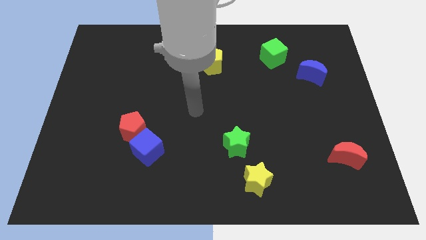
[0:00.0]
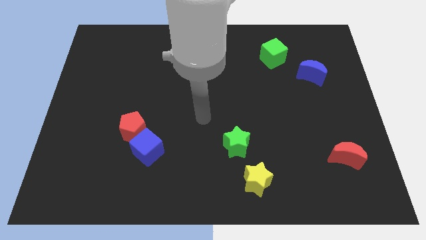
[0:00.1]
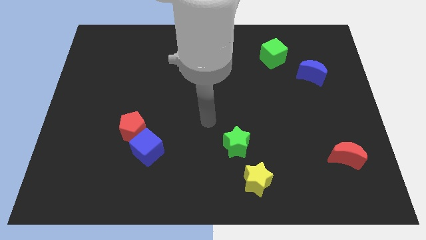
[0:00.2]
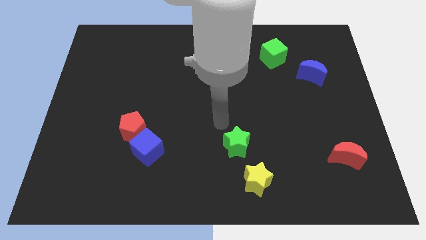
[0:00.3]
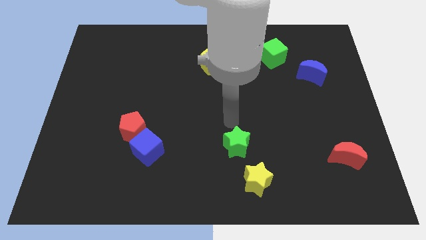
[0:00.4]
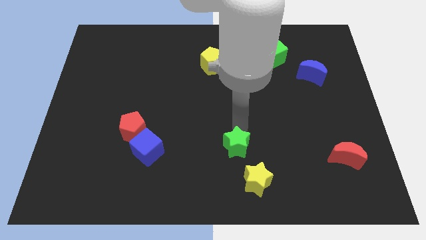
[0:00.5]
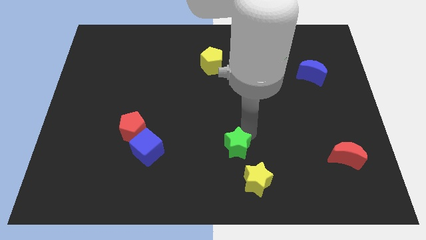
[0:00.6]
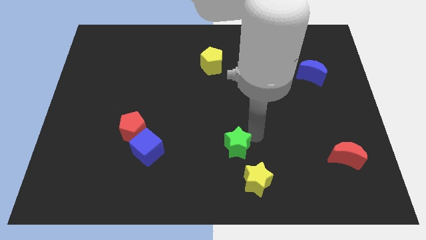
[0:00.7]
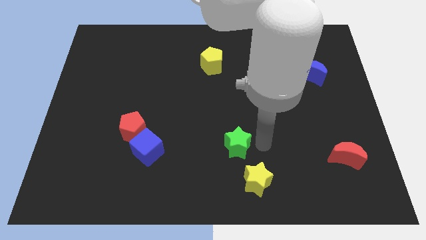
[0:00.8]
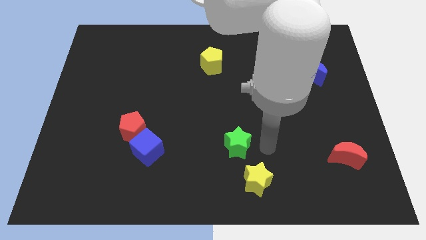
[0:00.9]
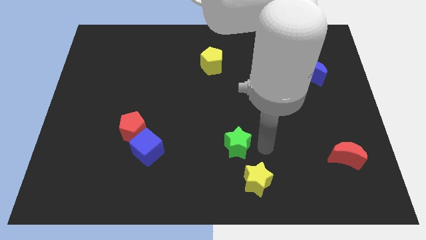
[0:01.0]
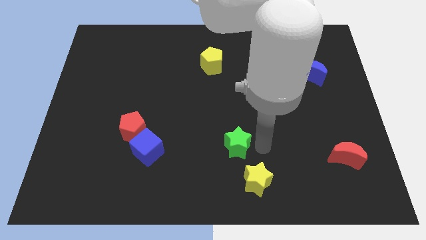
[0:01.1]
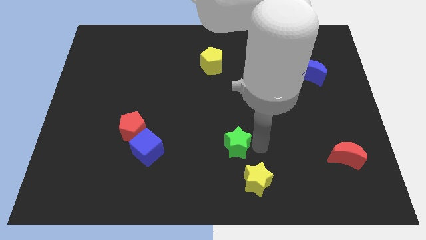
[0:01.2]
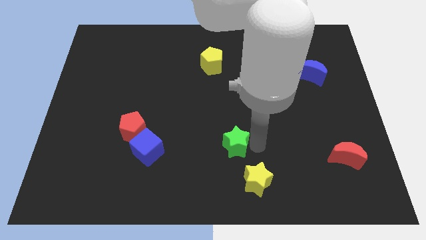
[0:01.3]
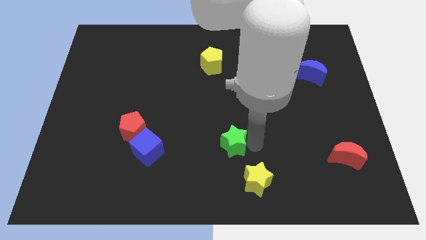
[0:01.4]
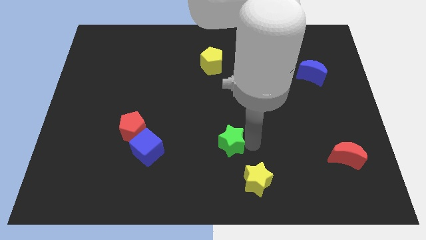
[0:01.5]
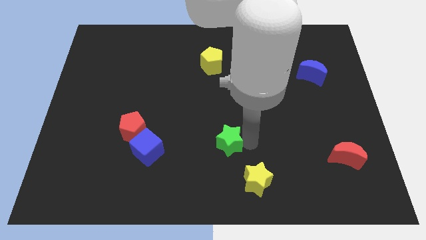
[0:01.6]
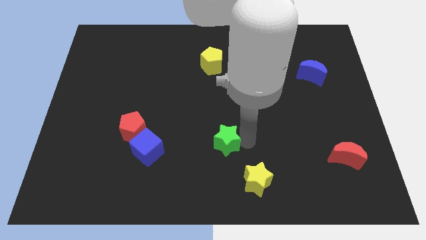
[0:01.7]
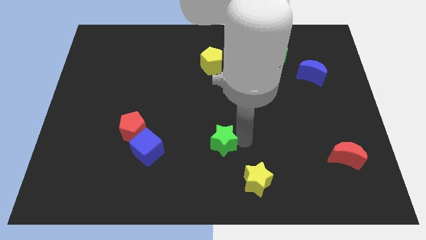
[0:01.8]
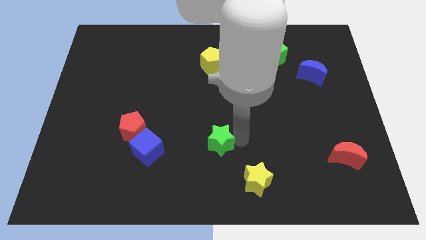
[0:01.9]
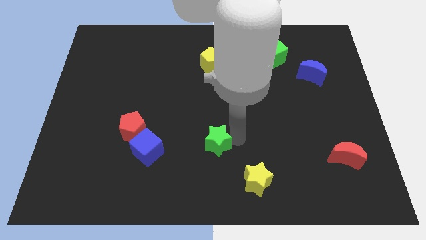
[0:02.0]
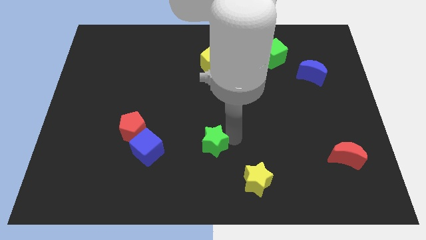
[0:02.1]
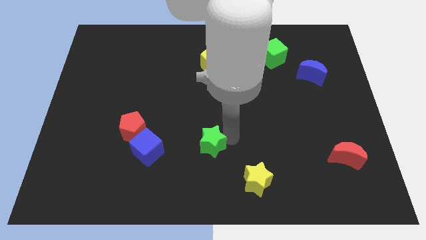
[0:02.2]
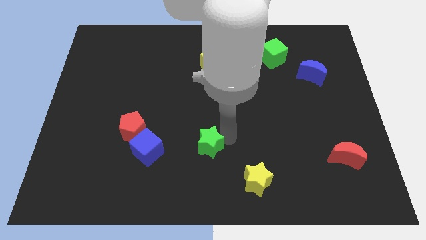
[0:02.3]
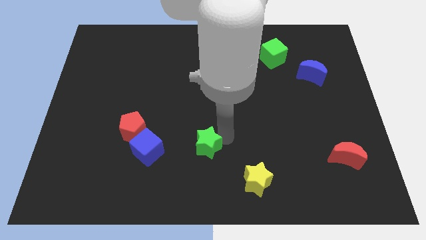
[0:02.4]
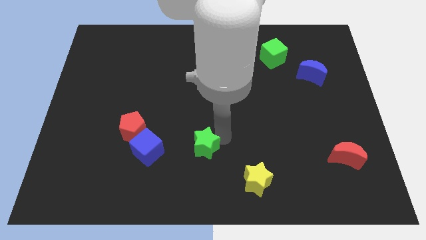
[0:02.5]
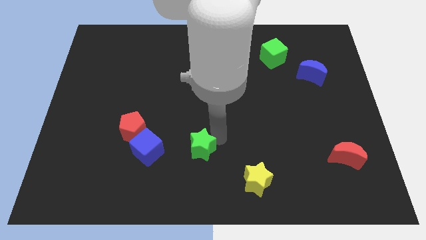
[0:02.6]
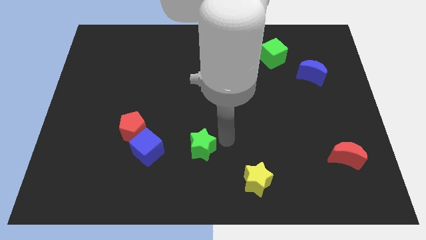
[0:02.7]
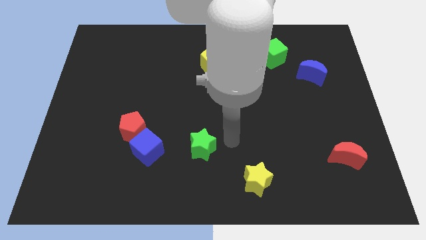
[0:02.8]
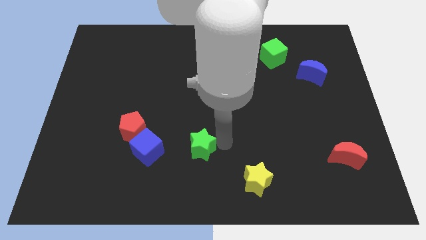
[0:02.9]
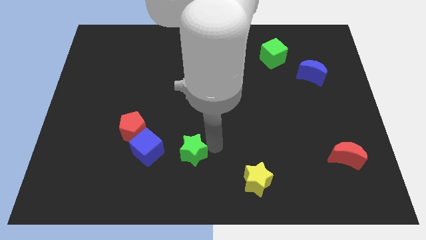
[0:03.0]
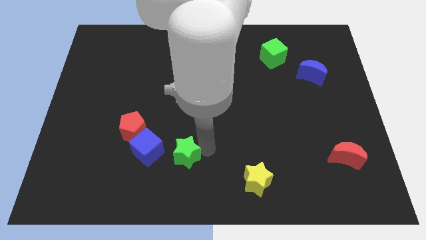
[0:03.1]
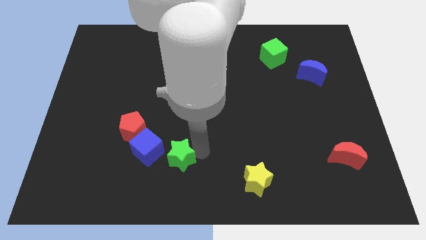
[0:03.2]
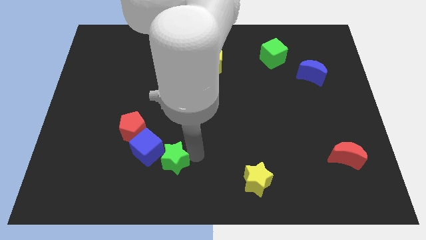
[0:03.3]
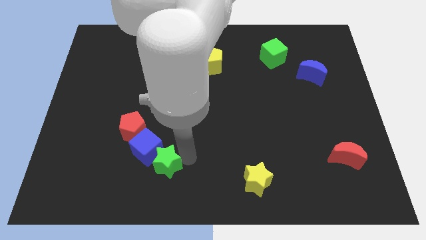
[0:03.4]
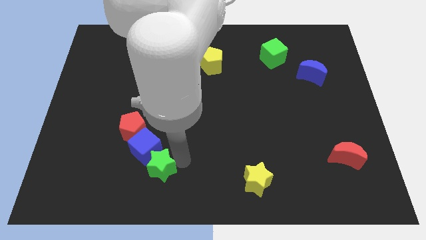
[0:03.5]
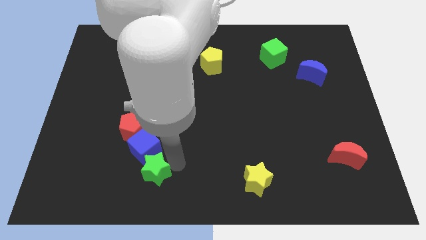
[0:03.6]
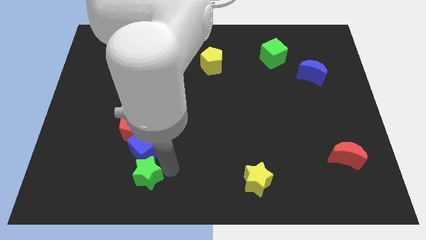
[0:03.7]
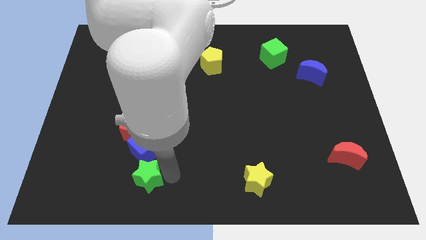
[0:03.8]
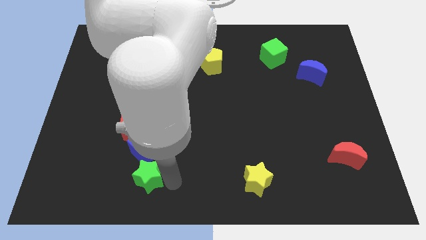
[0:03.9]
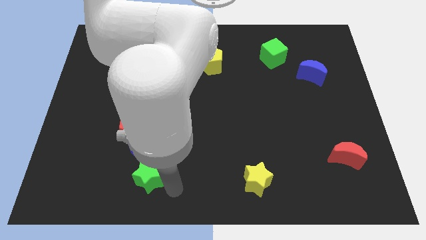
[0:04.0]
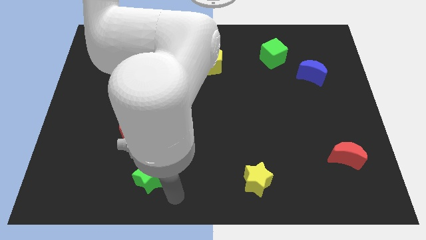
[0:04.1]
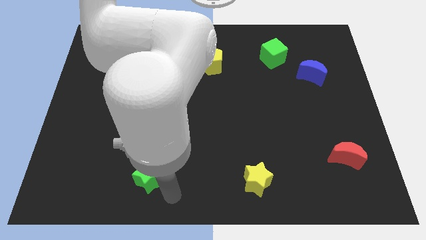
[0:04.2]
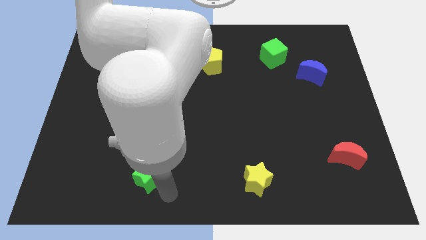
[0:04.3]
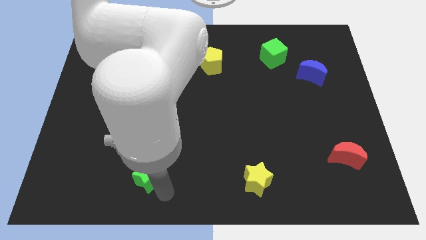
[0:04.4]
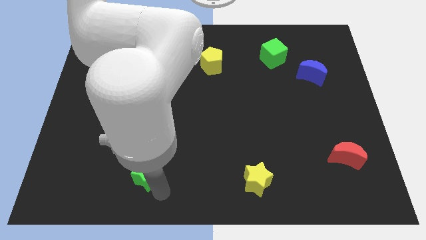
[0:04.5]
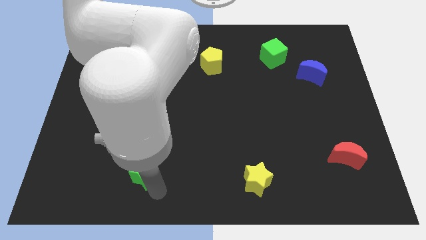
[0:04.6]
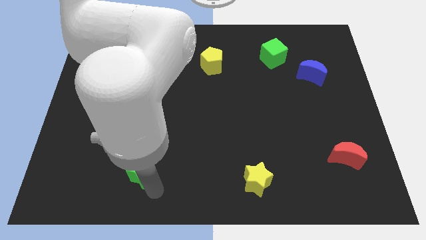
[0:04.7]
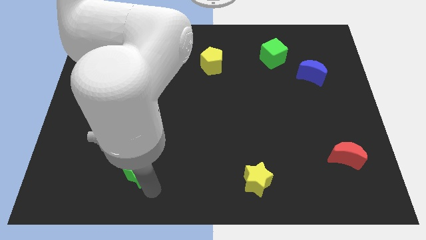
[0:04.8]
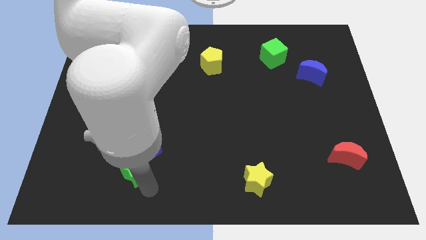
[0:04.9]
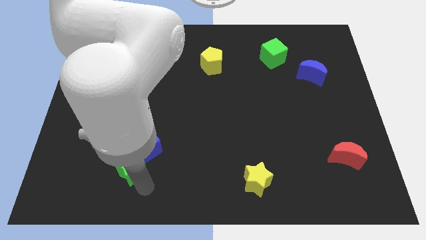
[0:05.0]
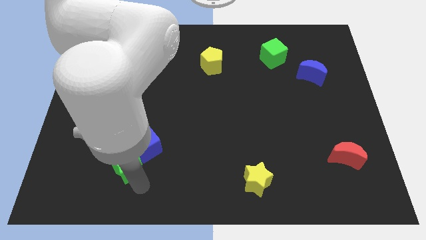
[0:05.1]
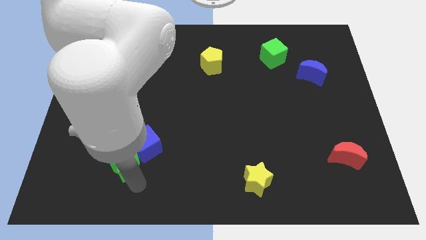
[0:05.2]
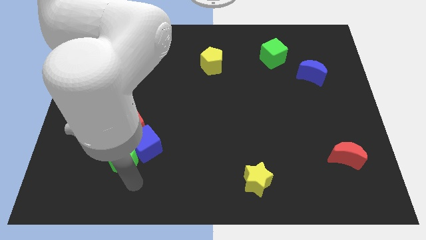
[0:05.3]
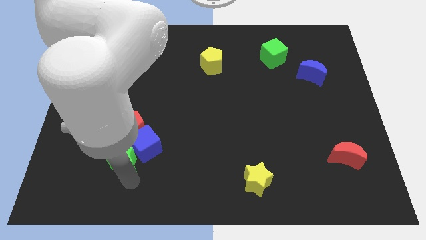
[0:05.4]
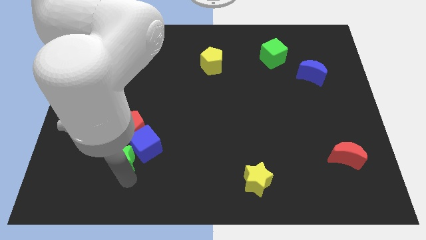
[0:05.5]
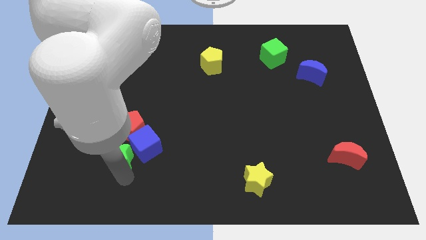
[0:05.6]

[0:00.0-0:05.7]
push the green star to the bottom left of the red pentagon

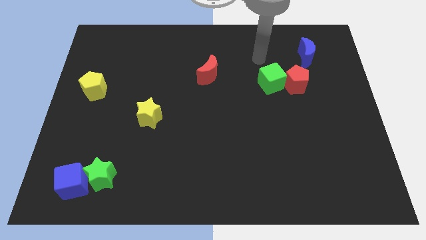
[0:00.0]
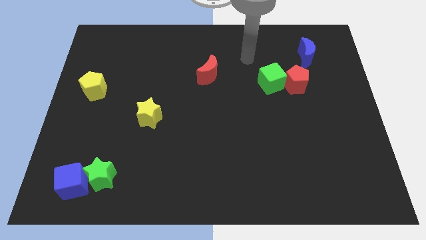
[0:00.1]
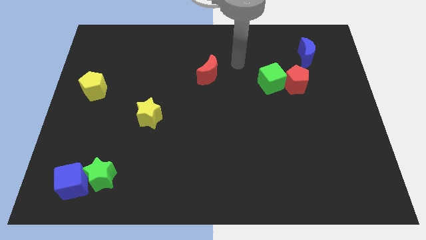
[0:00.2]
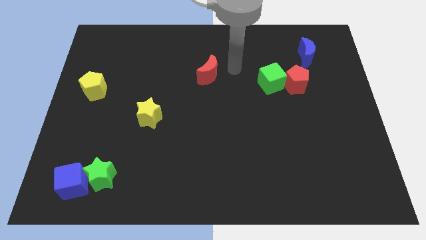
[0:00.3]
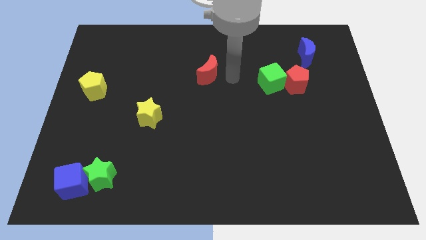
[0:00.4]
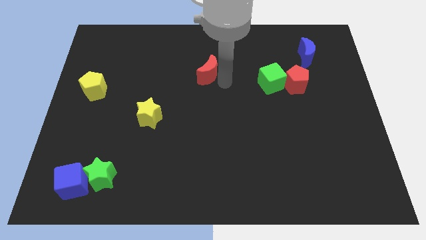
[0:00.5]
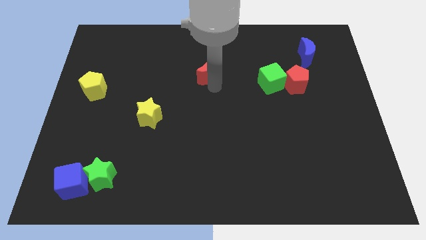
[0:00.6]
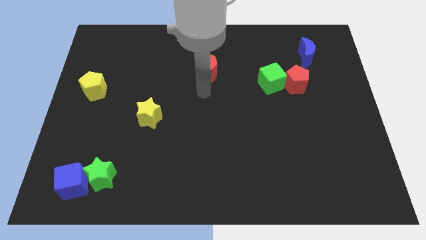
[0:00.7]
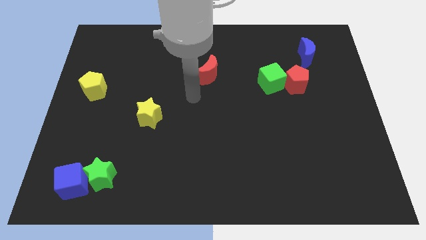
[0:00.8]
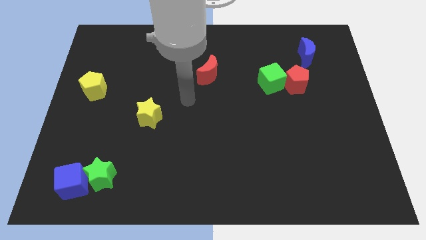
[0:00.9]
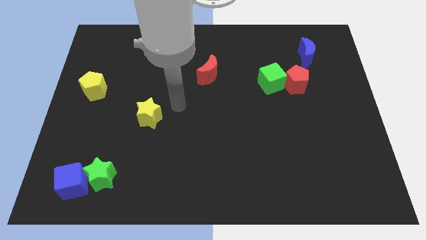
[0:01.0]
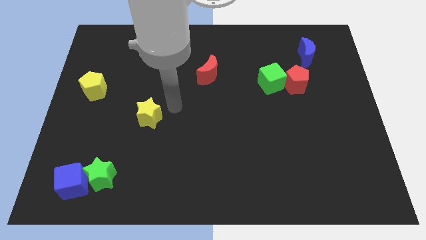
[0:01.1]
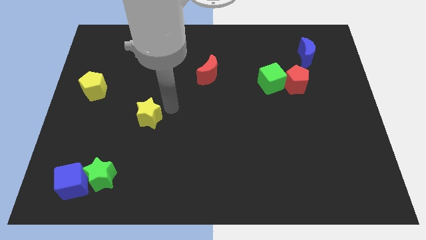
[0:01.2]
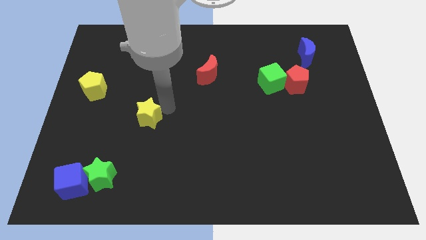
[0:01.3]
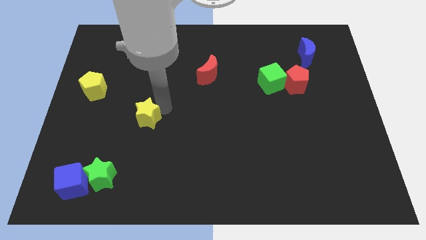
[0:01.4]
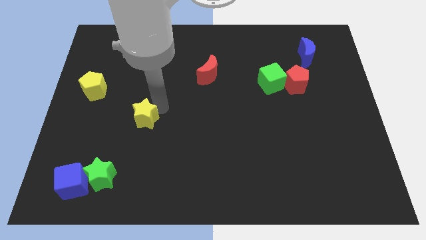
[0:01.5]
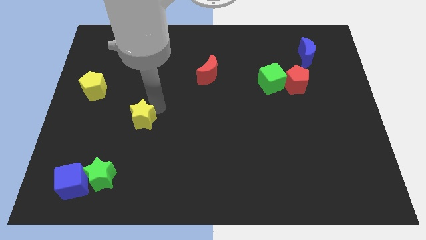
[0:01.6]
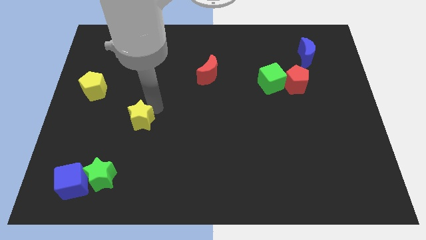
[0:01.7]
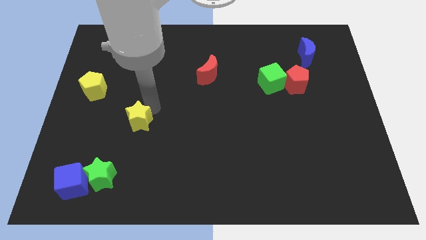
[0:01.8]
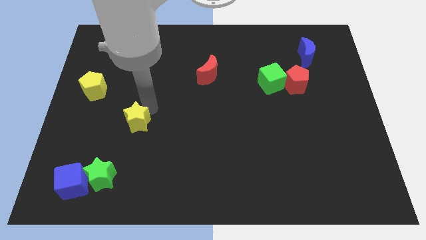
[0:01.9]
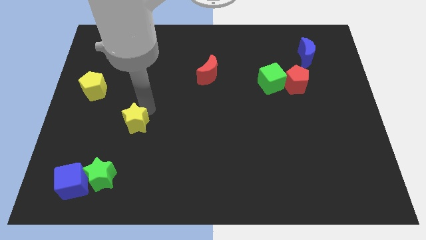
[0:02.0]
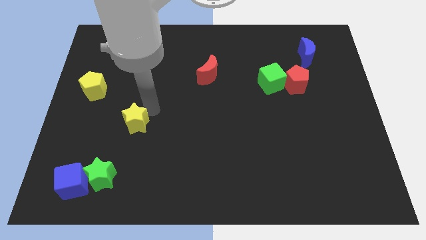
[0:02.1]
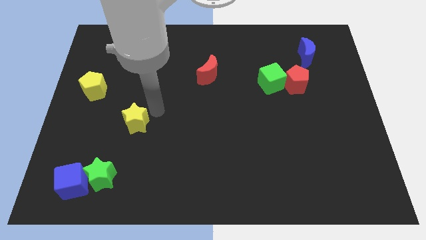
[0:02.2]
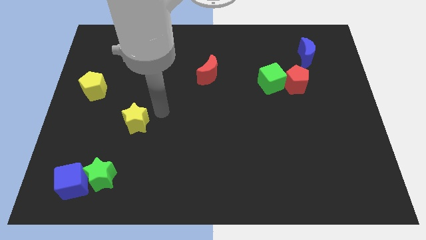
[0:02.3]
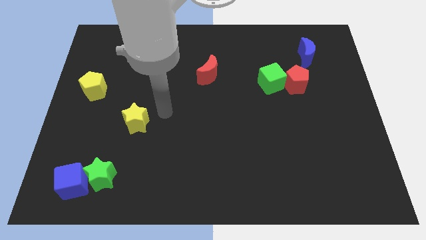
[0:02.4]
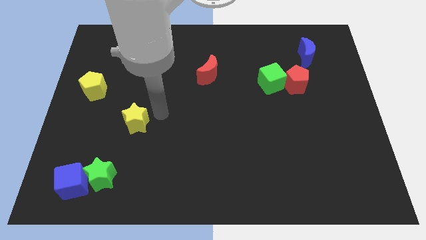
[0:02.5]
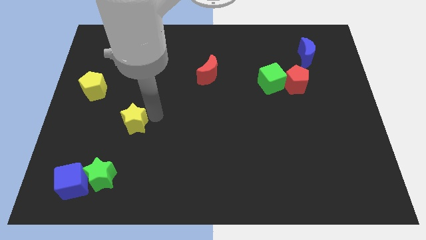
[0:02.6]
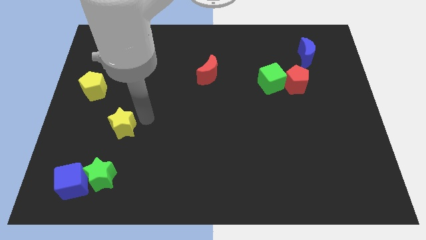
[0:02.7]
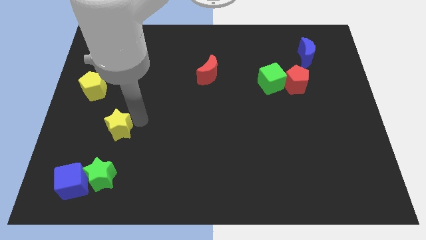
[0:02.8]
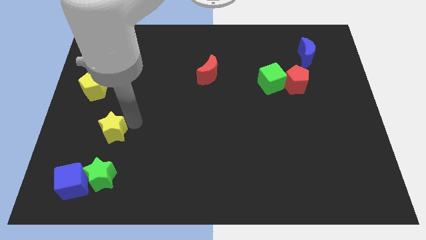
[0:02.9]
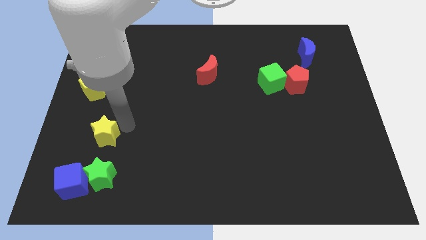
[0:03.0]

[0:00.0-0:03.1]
move the yellow star above the blue cube
